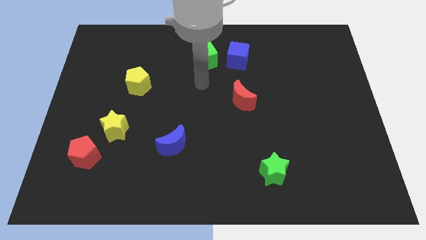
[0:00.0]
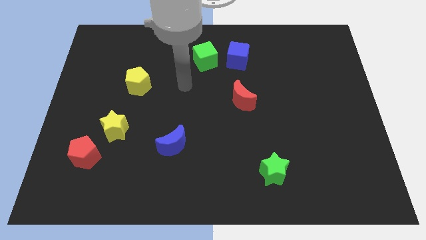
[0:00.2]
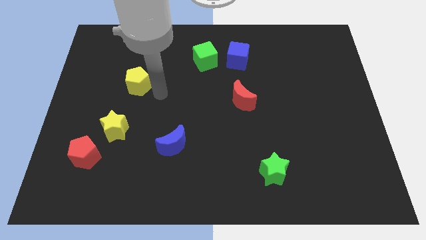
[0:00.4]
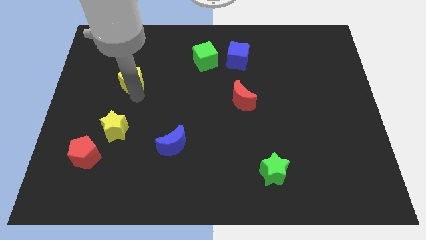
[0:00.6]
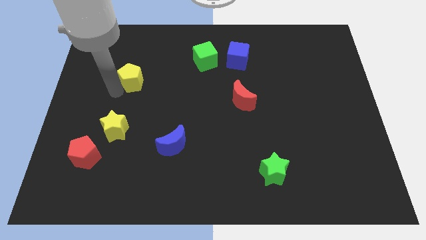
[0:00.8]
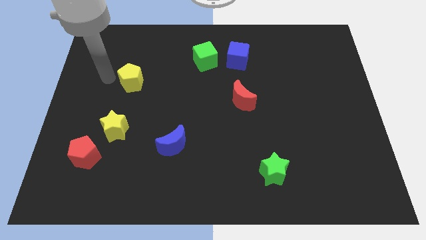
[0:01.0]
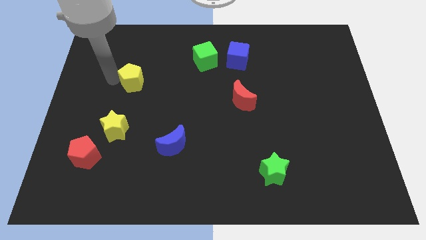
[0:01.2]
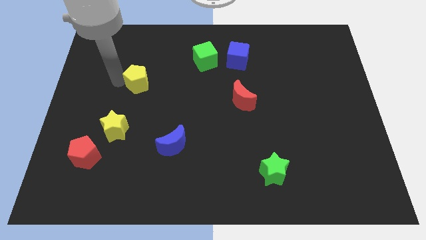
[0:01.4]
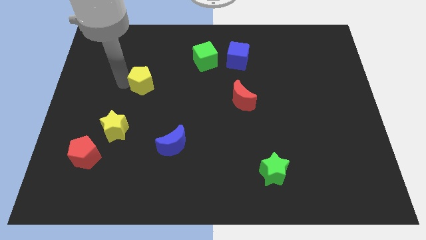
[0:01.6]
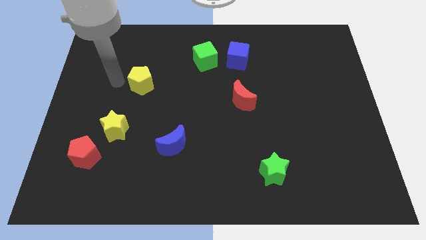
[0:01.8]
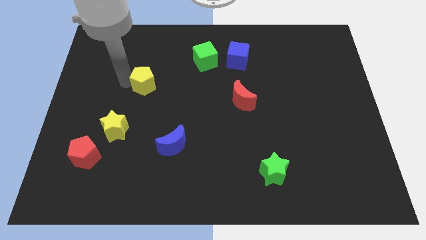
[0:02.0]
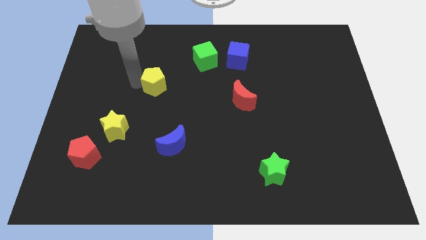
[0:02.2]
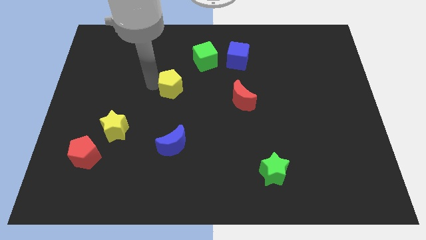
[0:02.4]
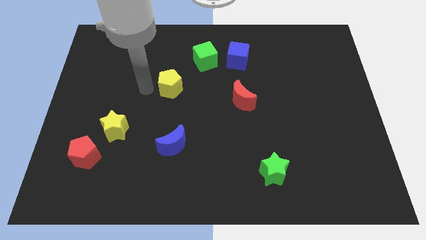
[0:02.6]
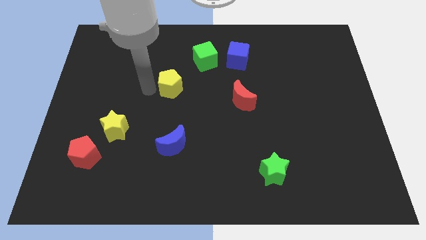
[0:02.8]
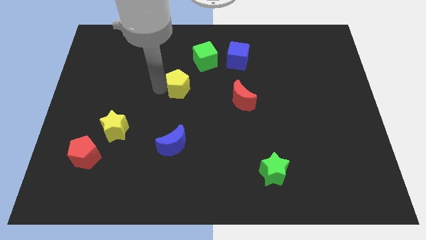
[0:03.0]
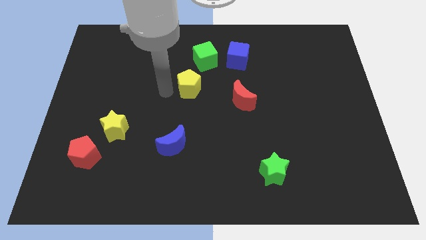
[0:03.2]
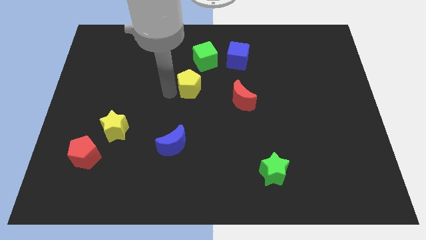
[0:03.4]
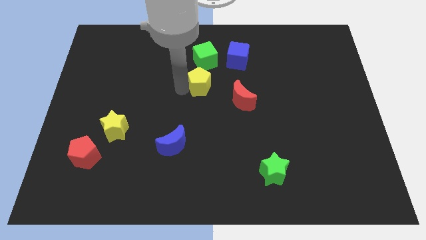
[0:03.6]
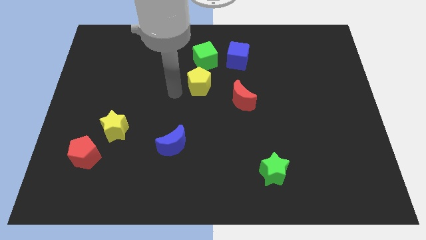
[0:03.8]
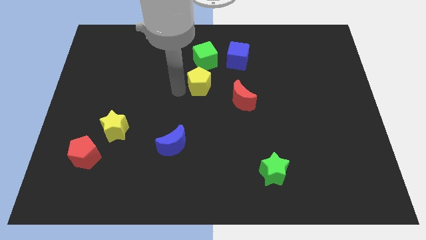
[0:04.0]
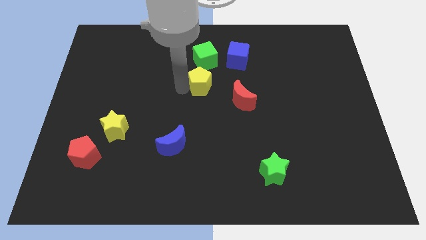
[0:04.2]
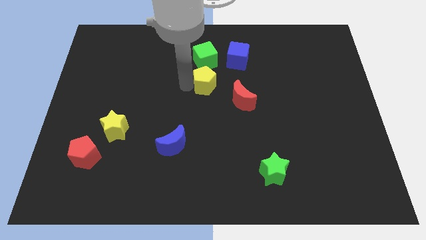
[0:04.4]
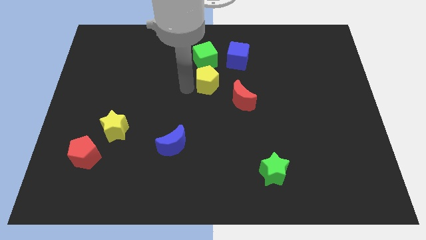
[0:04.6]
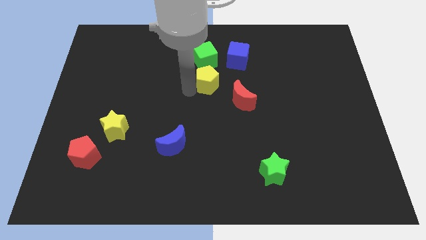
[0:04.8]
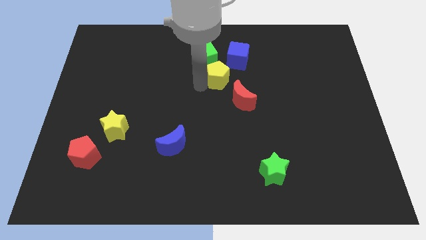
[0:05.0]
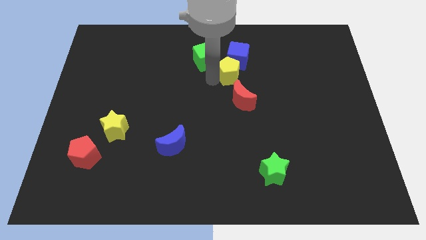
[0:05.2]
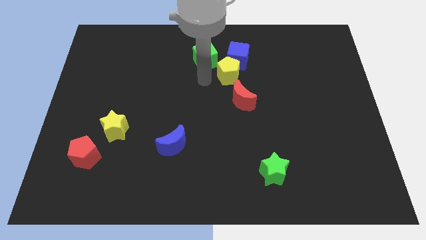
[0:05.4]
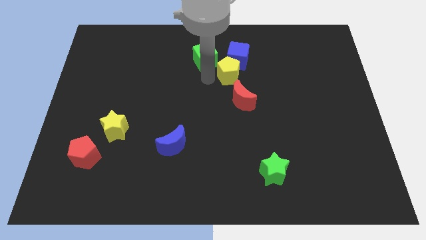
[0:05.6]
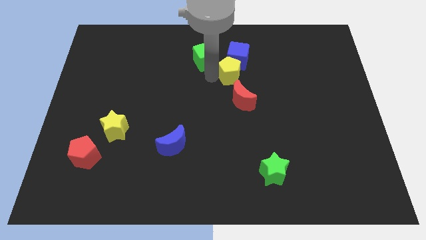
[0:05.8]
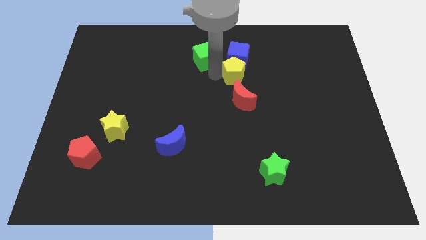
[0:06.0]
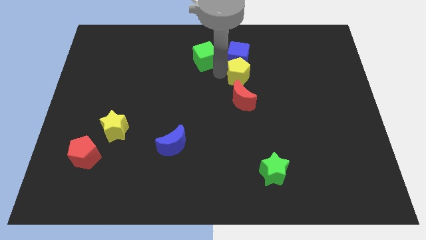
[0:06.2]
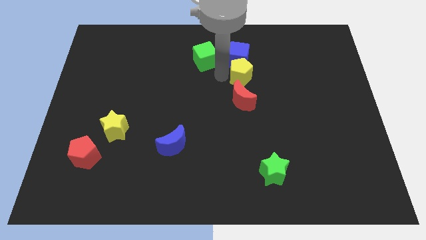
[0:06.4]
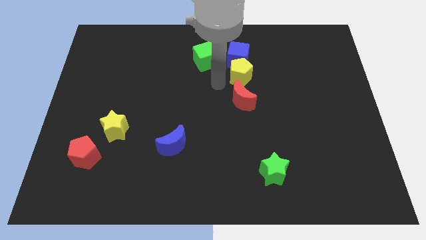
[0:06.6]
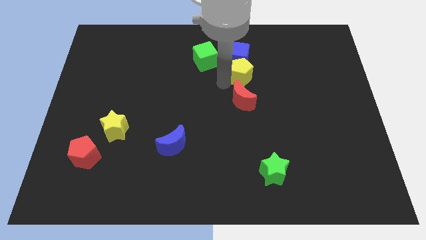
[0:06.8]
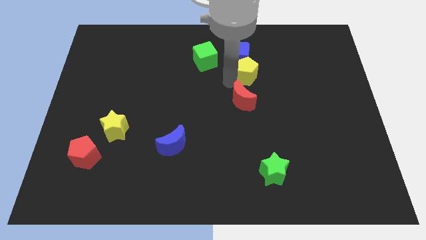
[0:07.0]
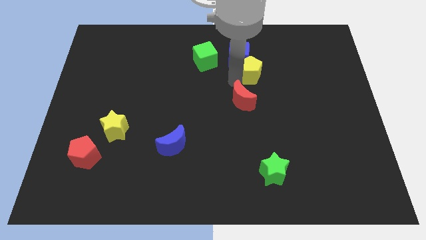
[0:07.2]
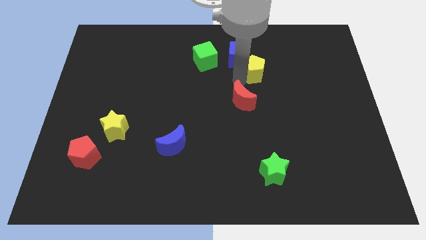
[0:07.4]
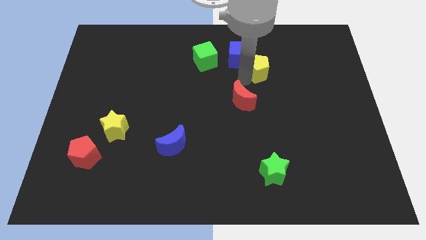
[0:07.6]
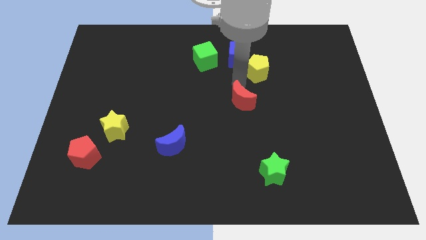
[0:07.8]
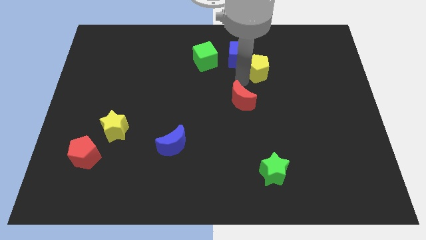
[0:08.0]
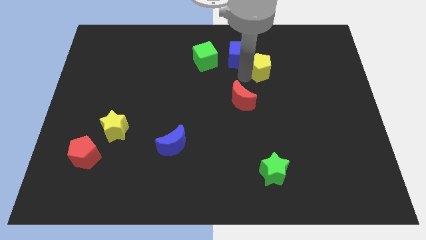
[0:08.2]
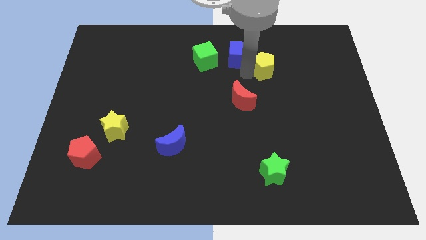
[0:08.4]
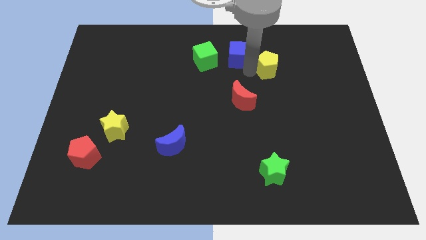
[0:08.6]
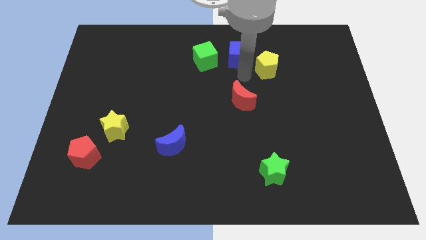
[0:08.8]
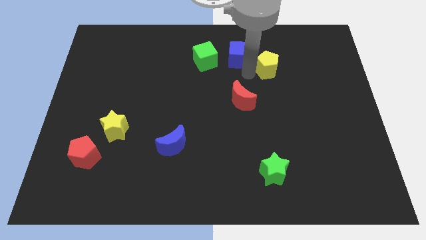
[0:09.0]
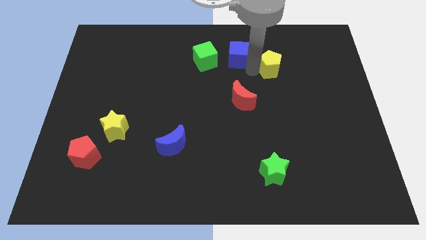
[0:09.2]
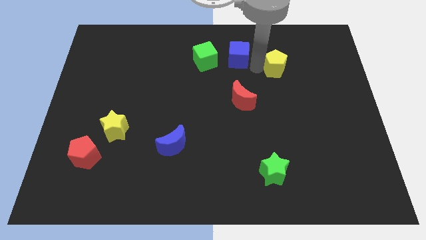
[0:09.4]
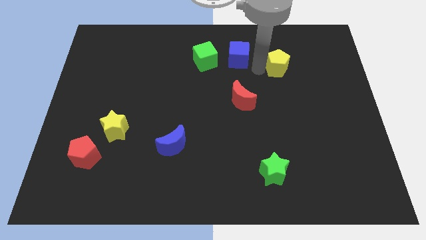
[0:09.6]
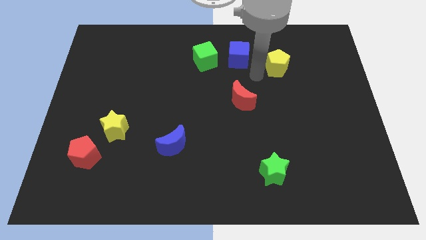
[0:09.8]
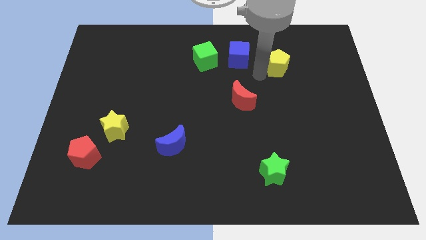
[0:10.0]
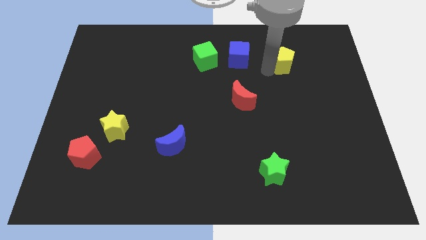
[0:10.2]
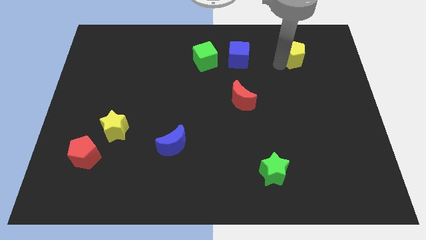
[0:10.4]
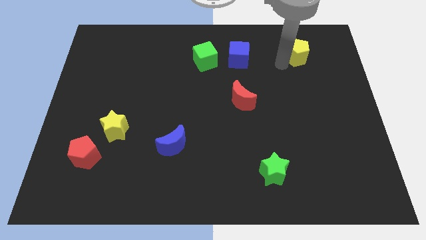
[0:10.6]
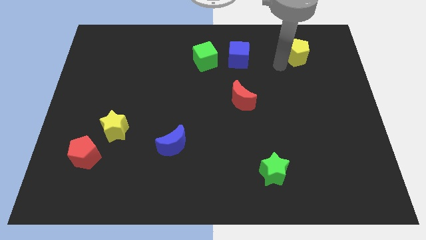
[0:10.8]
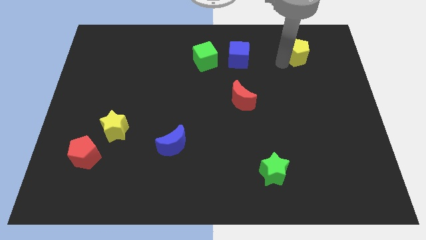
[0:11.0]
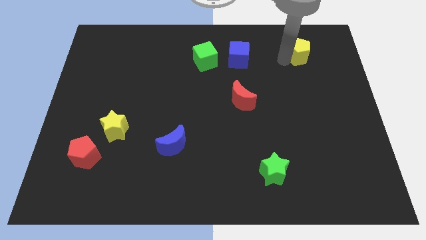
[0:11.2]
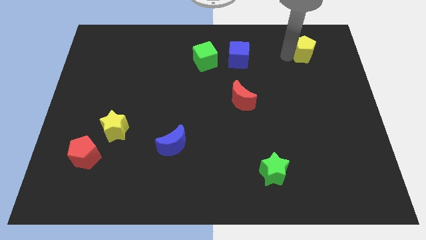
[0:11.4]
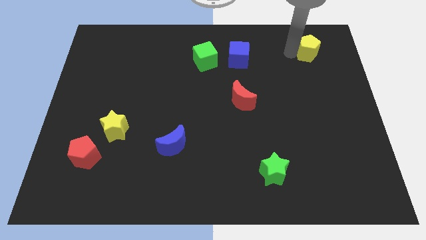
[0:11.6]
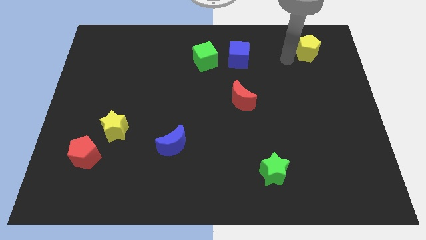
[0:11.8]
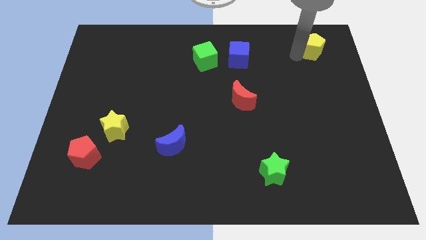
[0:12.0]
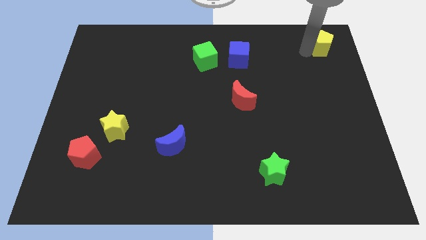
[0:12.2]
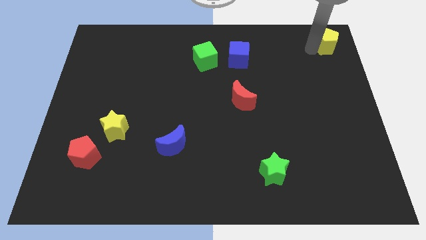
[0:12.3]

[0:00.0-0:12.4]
move the yellow pentagon to the top right of the board
